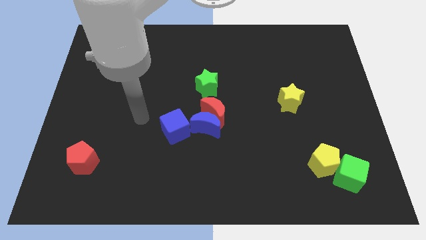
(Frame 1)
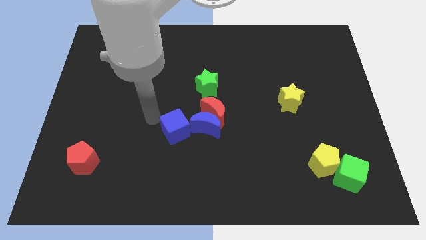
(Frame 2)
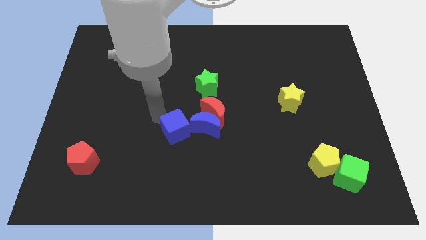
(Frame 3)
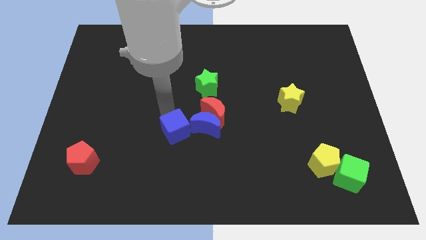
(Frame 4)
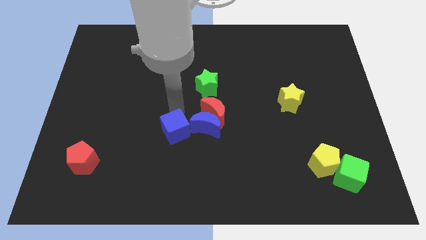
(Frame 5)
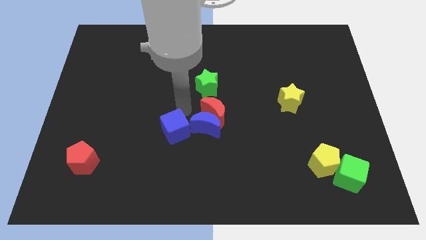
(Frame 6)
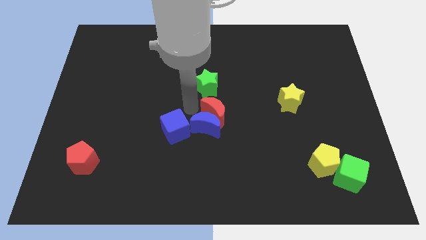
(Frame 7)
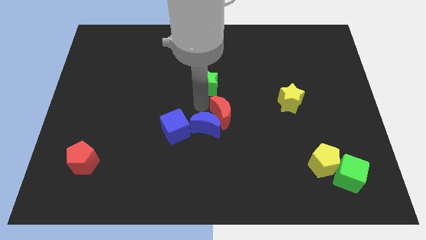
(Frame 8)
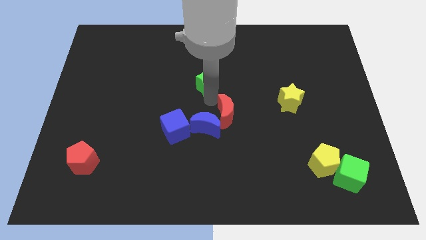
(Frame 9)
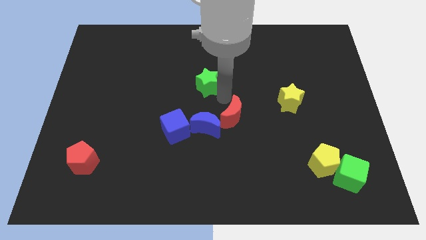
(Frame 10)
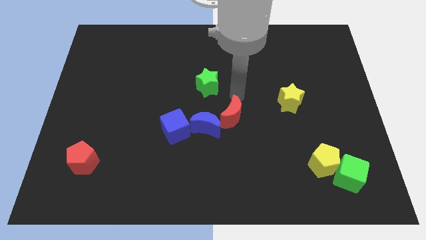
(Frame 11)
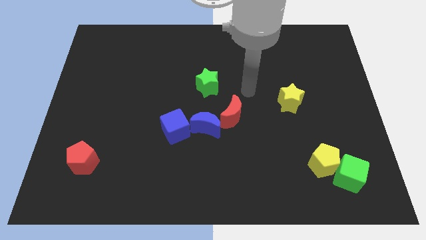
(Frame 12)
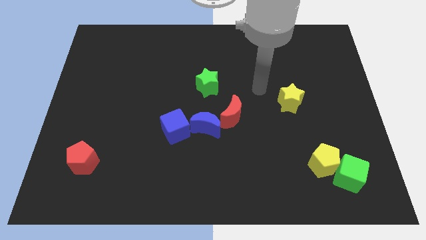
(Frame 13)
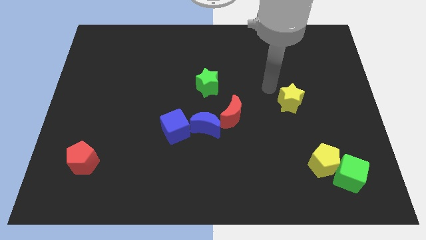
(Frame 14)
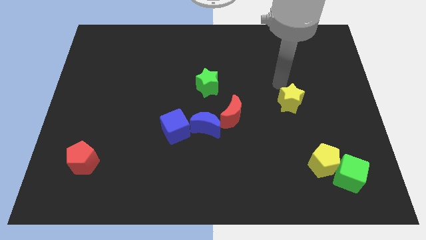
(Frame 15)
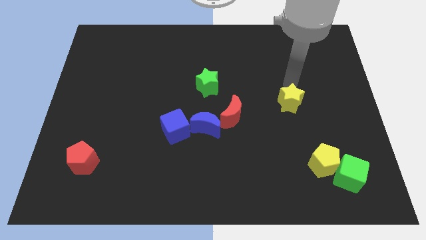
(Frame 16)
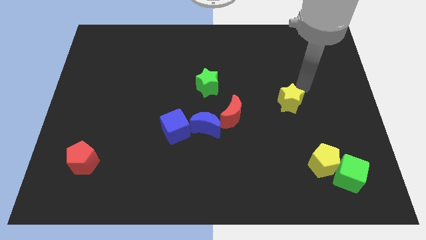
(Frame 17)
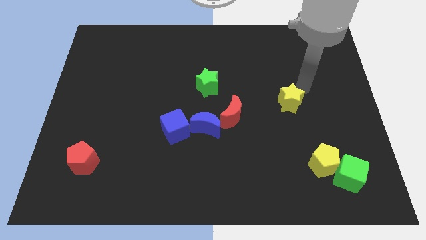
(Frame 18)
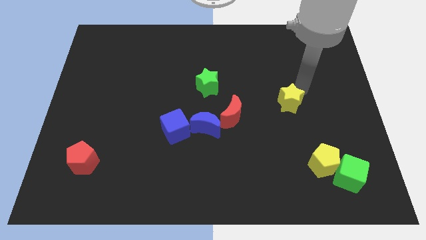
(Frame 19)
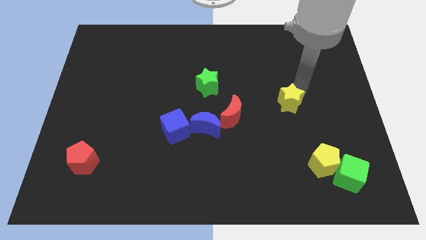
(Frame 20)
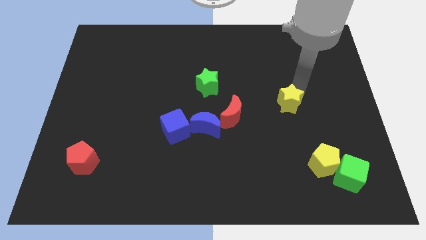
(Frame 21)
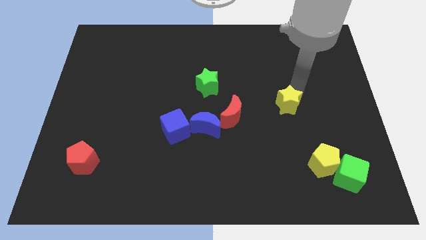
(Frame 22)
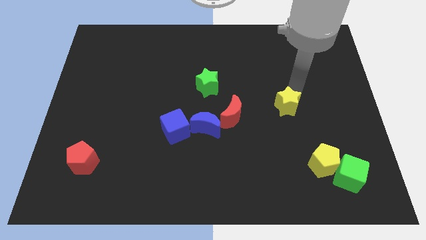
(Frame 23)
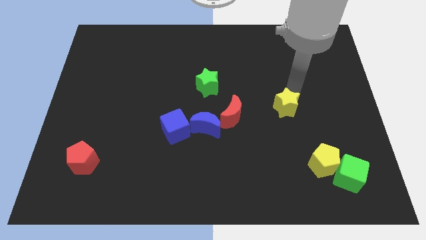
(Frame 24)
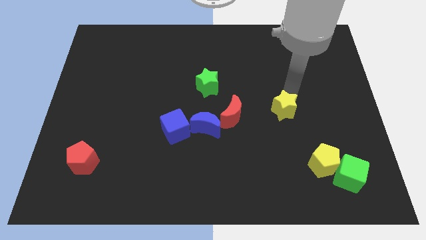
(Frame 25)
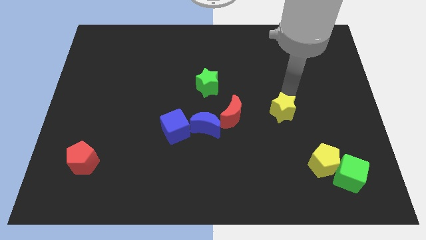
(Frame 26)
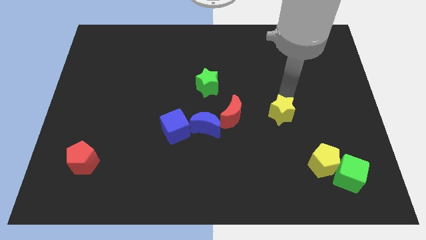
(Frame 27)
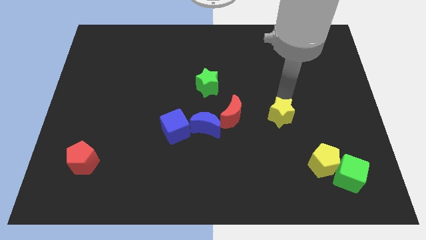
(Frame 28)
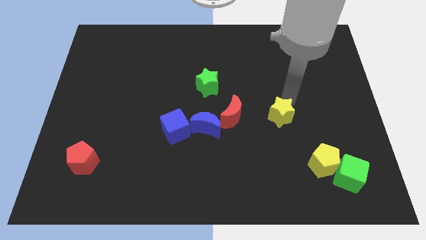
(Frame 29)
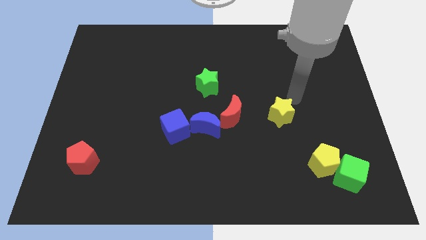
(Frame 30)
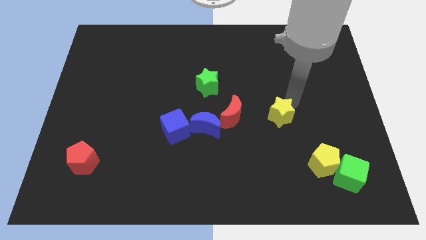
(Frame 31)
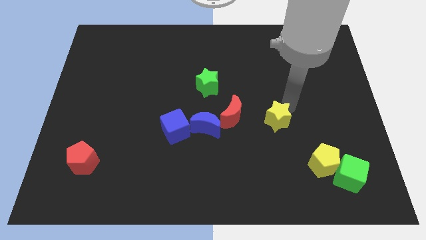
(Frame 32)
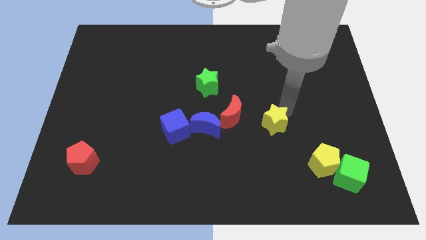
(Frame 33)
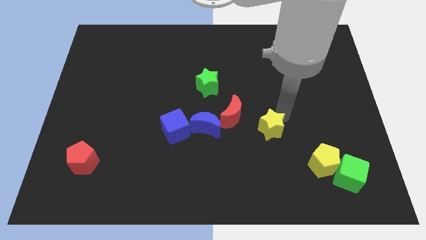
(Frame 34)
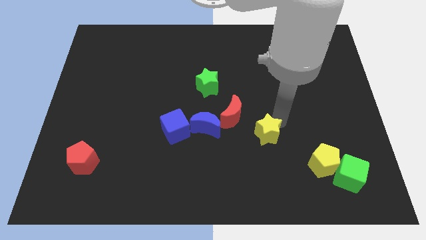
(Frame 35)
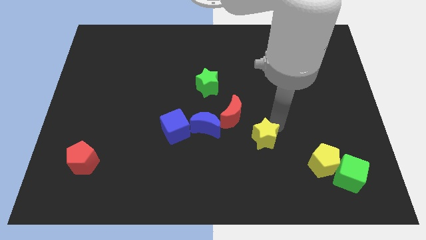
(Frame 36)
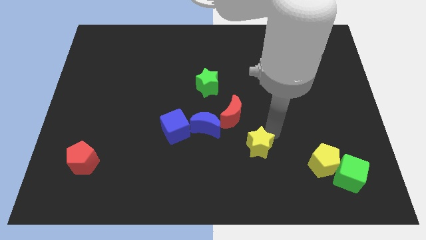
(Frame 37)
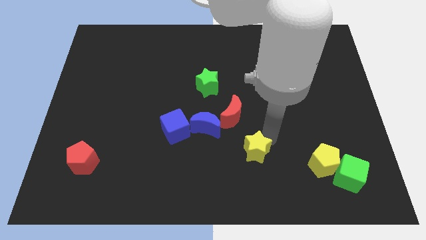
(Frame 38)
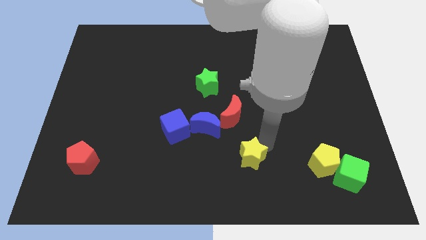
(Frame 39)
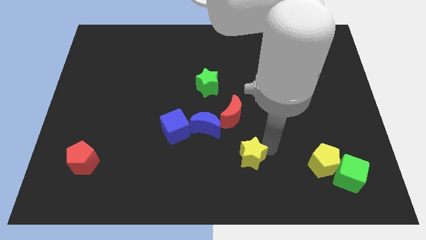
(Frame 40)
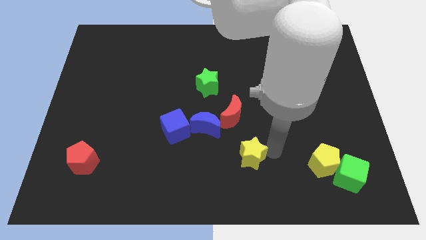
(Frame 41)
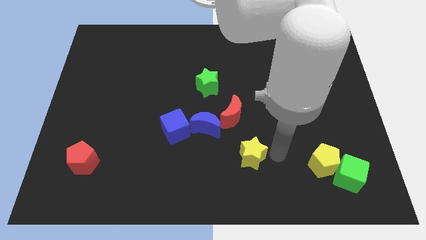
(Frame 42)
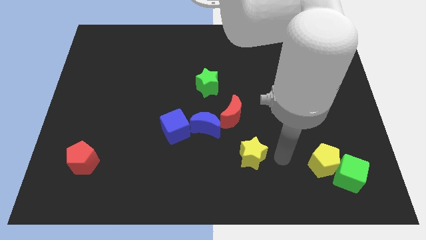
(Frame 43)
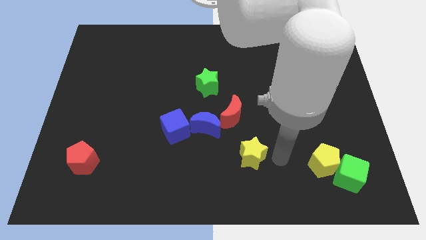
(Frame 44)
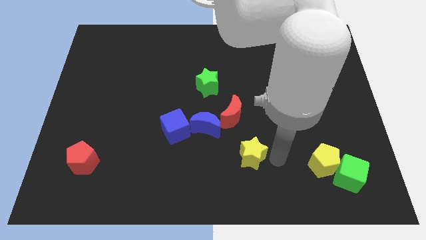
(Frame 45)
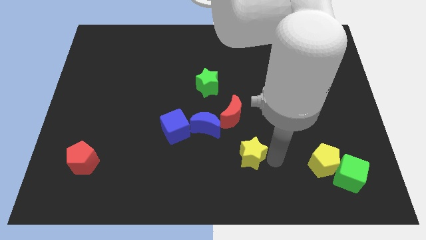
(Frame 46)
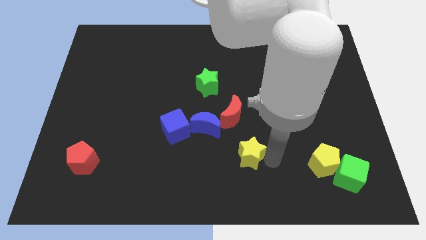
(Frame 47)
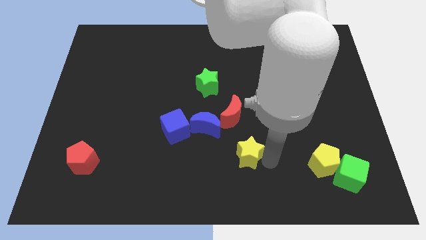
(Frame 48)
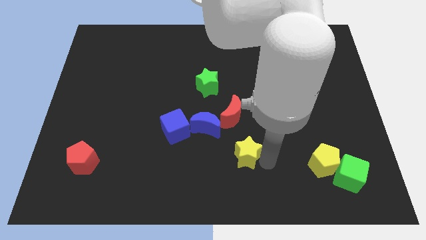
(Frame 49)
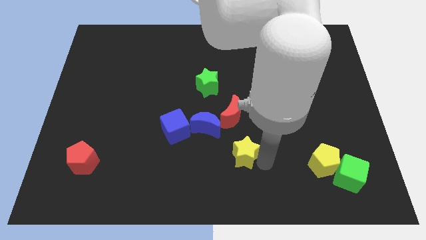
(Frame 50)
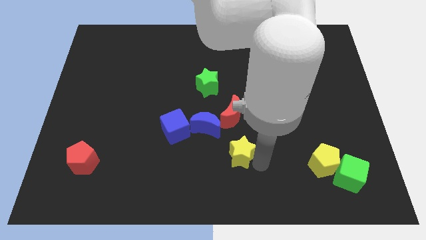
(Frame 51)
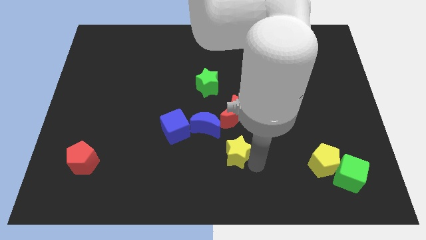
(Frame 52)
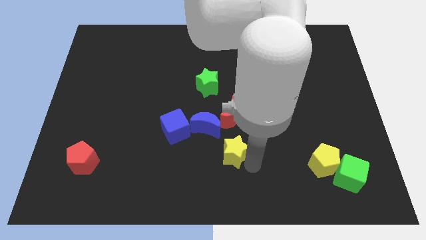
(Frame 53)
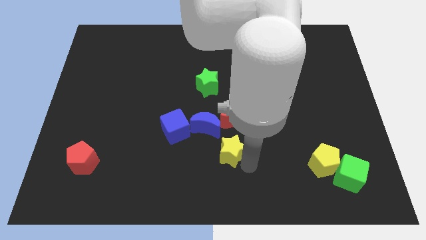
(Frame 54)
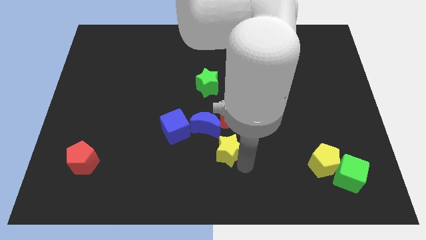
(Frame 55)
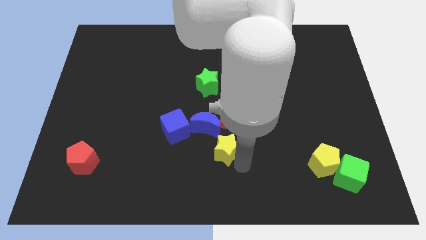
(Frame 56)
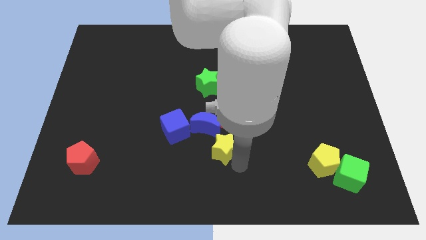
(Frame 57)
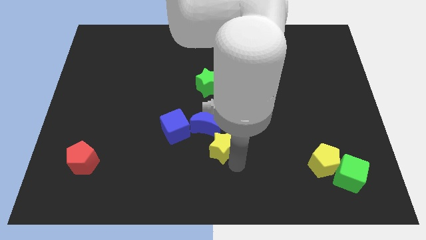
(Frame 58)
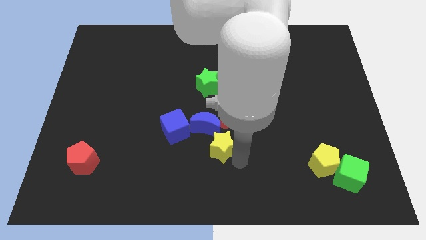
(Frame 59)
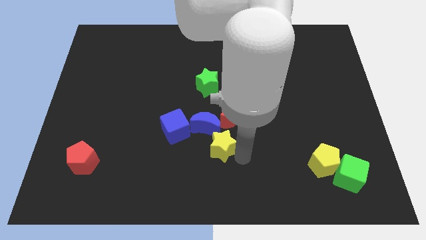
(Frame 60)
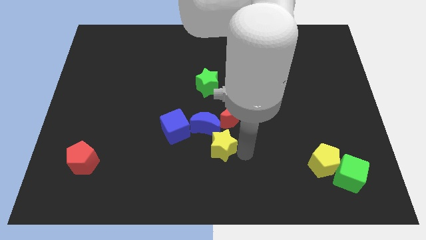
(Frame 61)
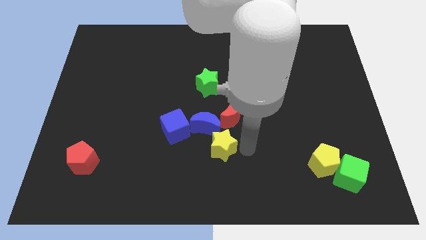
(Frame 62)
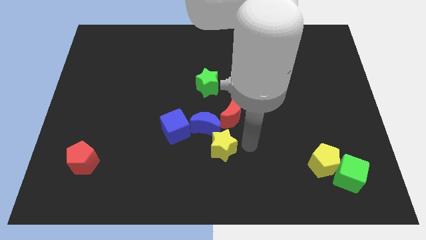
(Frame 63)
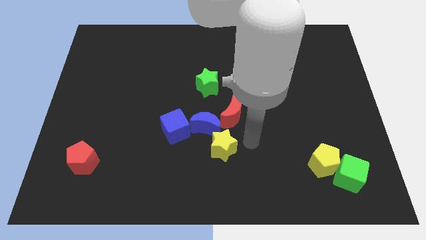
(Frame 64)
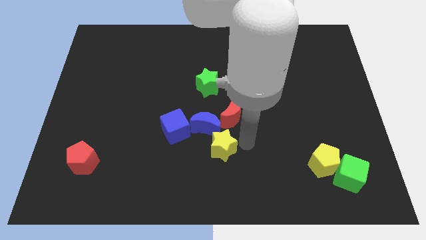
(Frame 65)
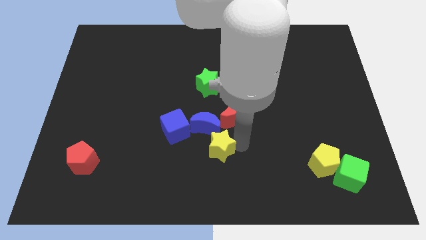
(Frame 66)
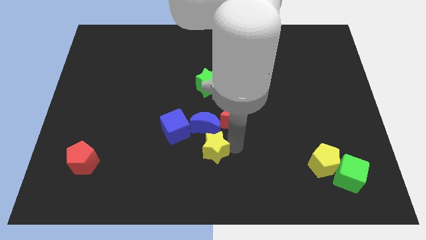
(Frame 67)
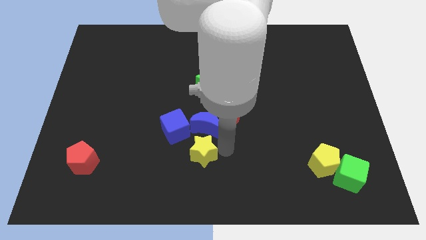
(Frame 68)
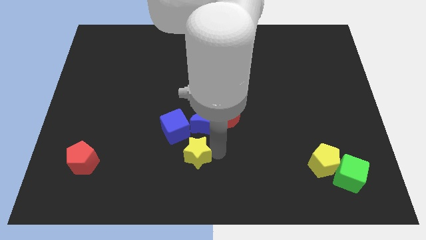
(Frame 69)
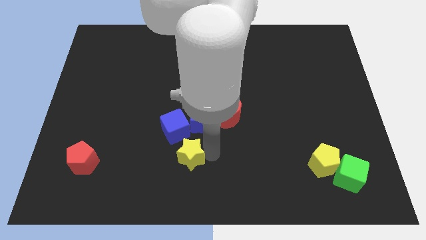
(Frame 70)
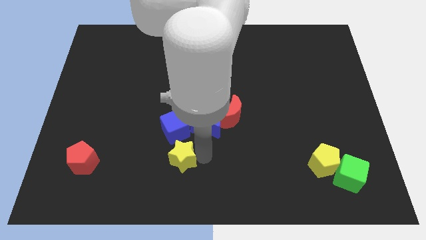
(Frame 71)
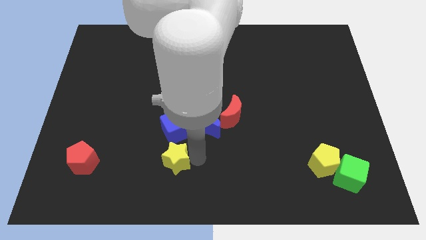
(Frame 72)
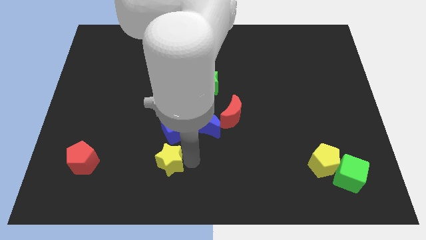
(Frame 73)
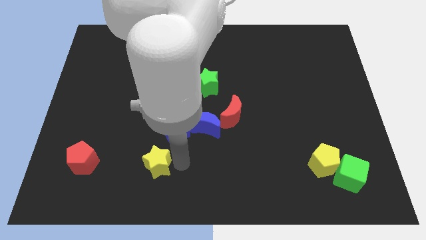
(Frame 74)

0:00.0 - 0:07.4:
push the yellow star to the right of the red pentagon

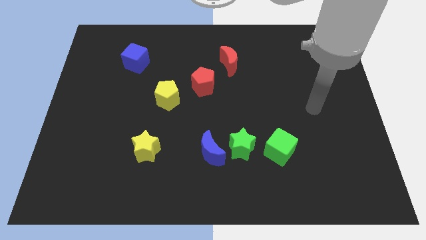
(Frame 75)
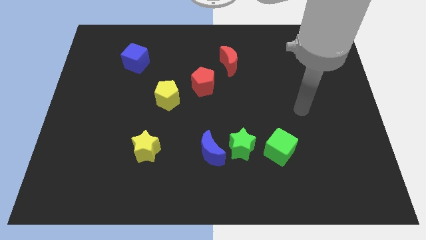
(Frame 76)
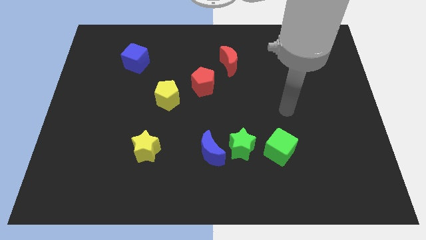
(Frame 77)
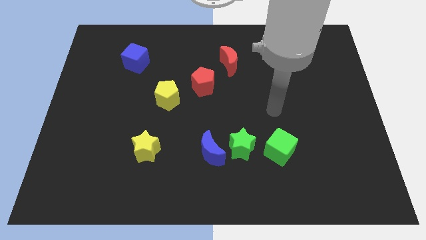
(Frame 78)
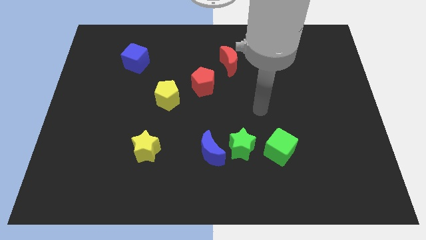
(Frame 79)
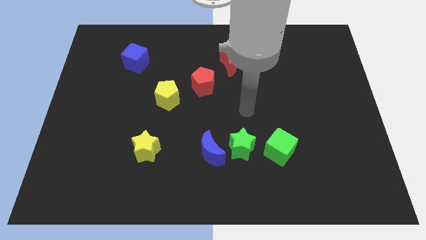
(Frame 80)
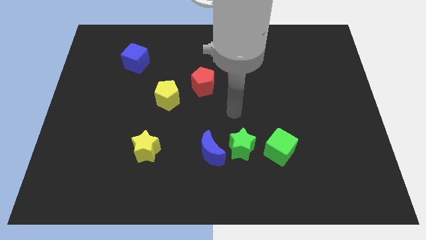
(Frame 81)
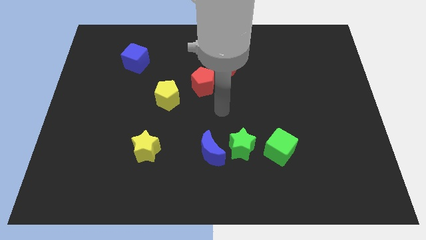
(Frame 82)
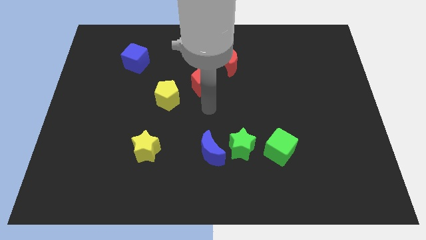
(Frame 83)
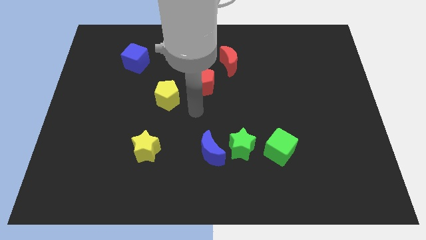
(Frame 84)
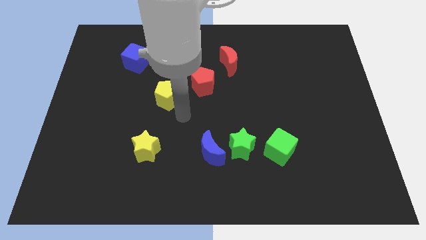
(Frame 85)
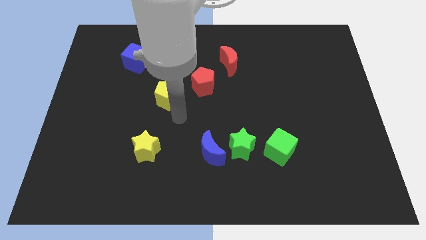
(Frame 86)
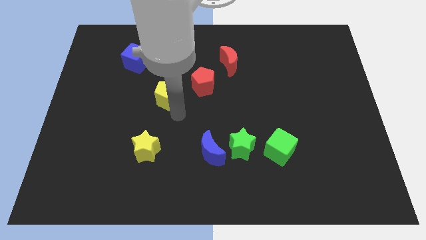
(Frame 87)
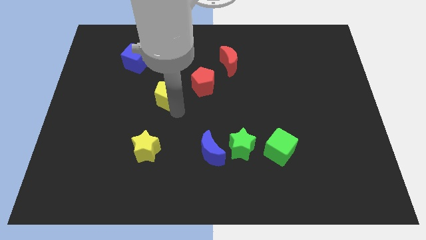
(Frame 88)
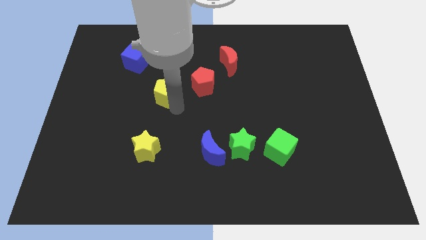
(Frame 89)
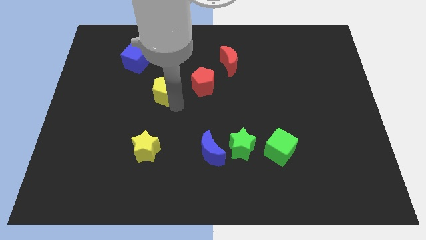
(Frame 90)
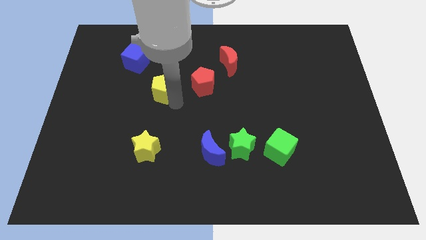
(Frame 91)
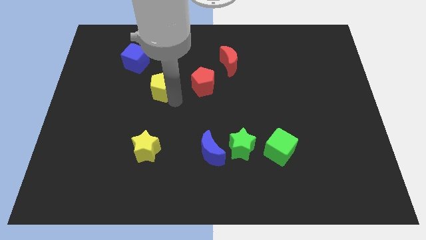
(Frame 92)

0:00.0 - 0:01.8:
slide the yellow pentagon to the bottom right side of the blue cube
